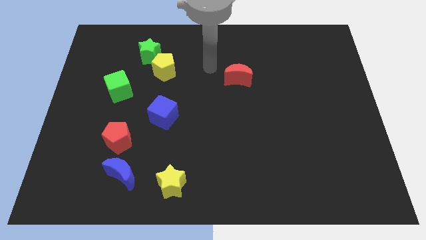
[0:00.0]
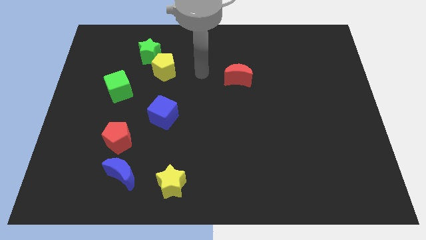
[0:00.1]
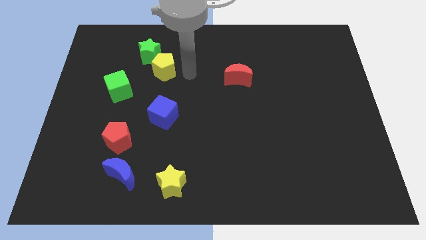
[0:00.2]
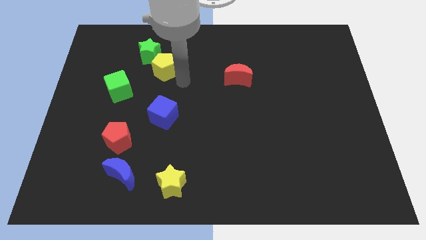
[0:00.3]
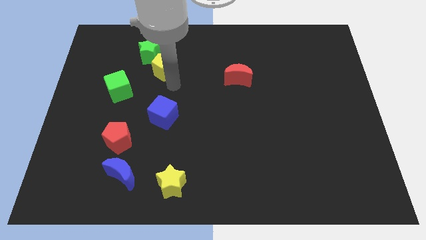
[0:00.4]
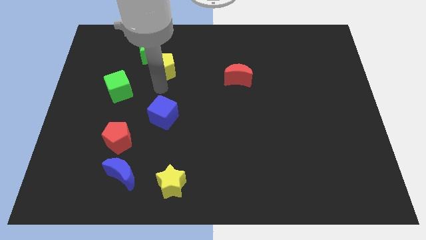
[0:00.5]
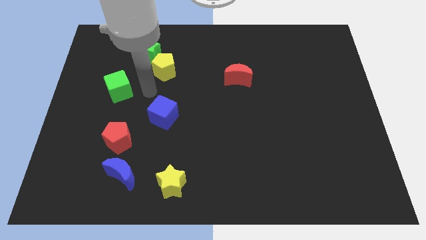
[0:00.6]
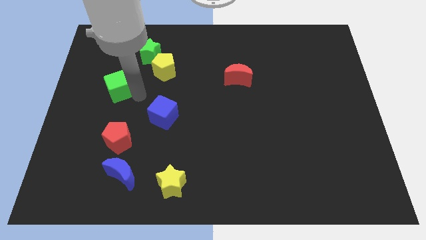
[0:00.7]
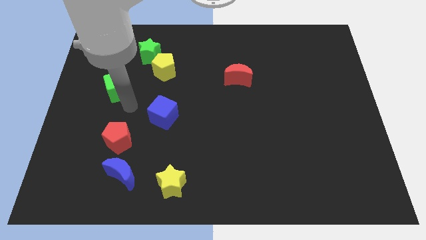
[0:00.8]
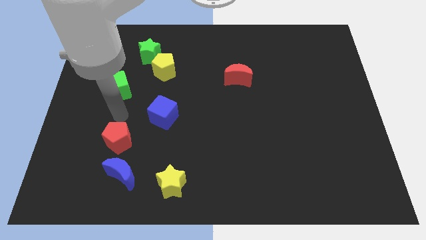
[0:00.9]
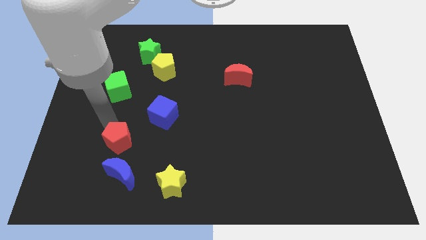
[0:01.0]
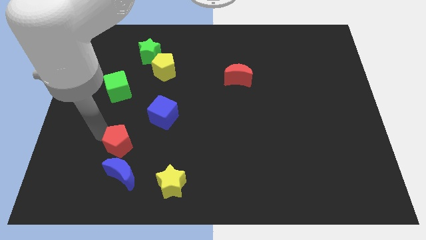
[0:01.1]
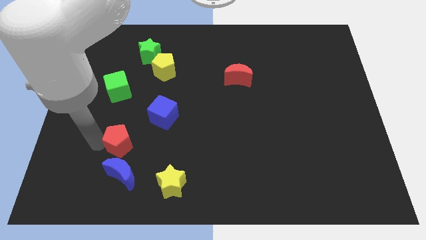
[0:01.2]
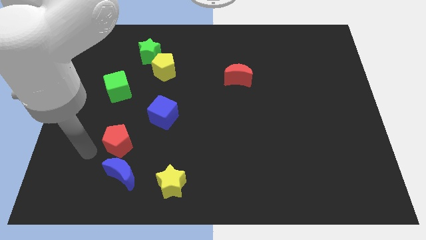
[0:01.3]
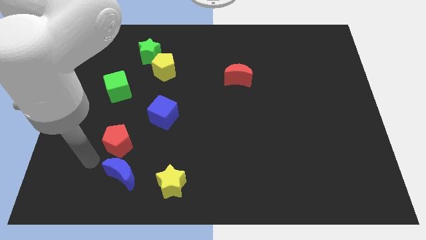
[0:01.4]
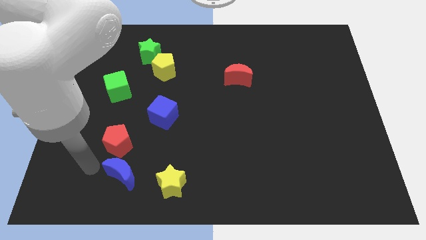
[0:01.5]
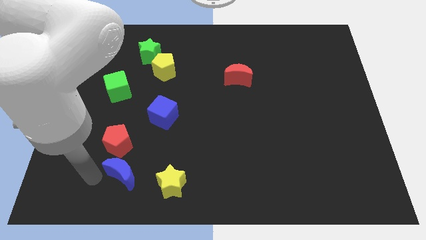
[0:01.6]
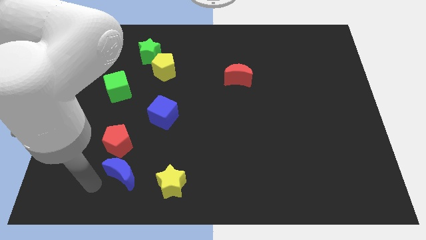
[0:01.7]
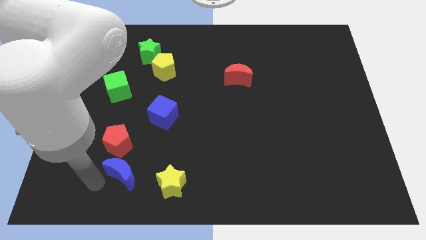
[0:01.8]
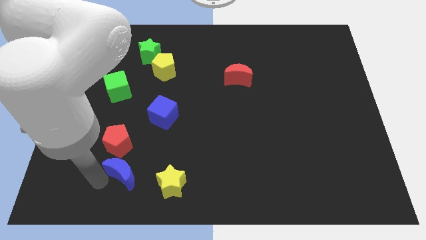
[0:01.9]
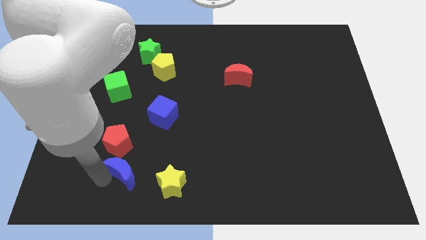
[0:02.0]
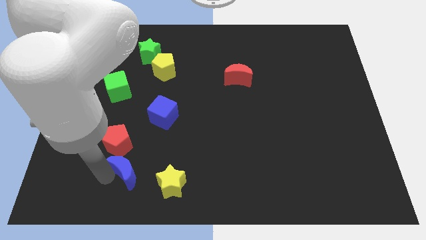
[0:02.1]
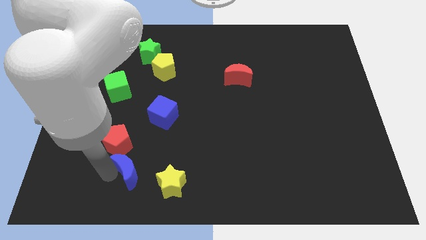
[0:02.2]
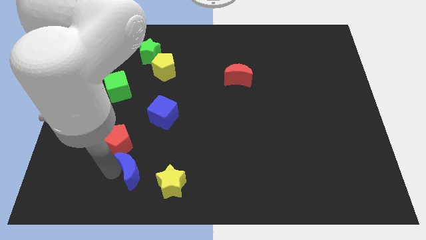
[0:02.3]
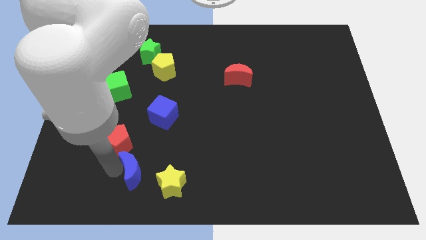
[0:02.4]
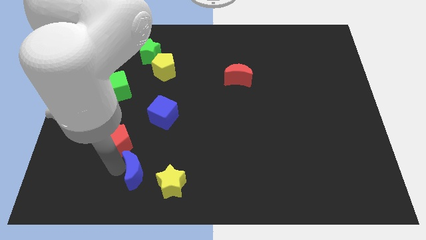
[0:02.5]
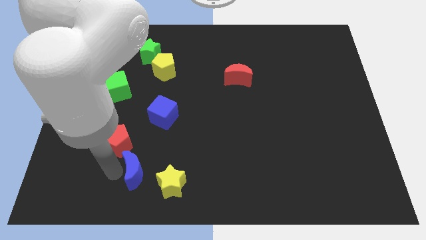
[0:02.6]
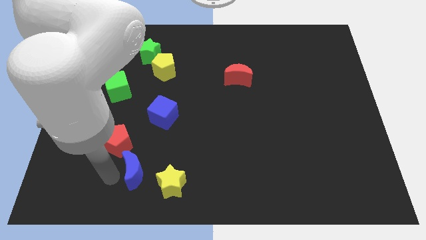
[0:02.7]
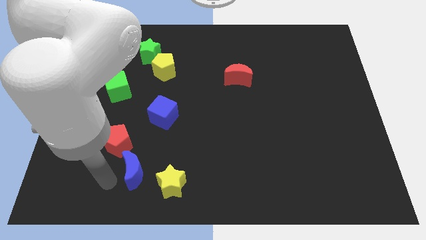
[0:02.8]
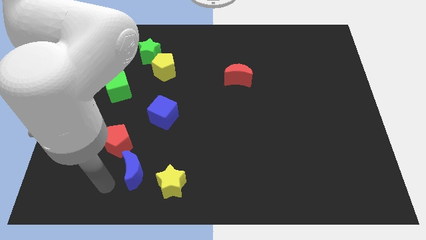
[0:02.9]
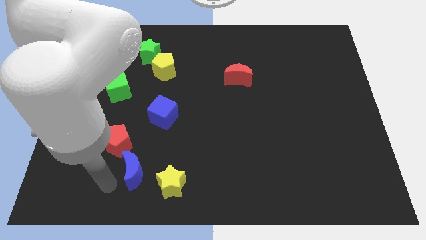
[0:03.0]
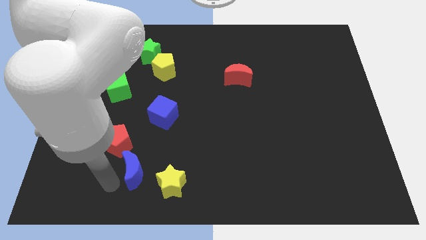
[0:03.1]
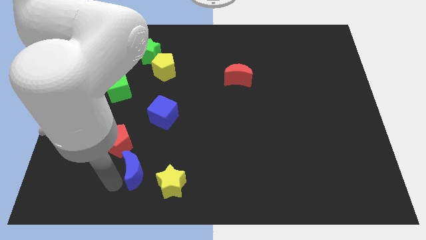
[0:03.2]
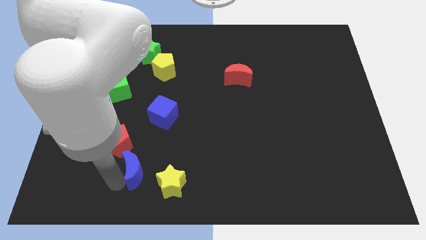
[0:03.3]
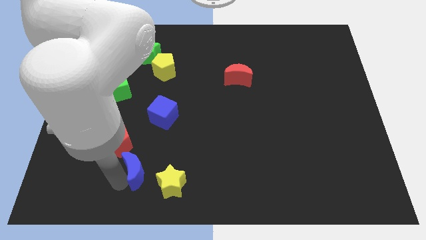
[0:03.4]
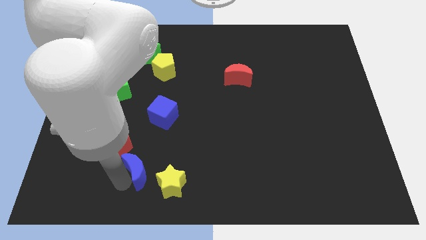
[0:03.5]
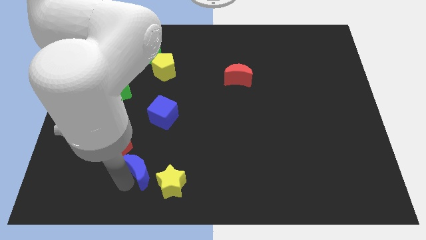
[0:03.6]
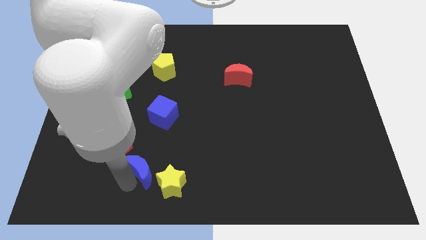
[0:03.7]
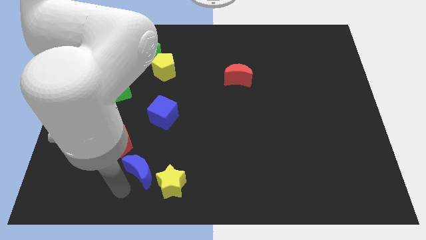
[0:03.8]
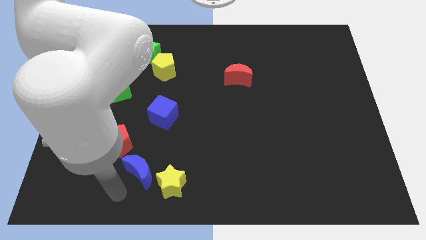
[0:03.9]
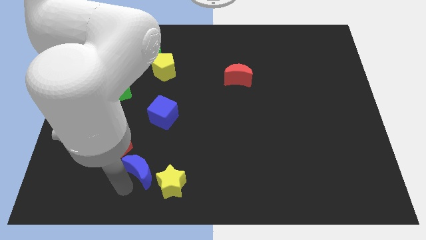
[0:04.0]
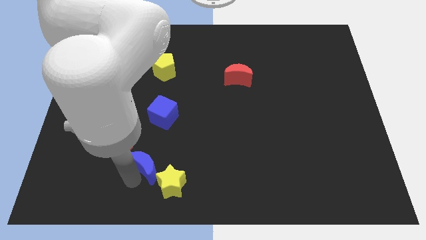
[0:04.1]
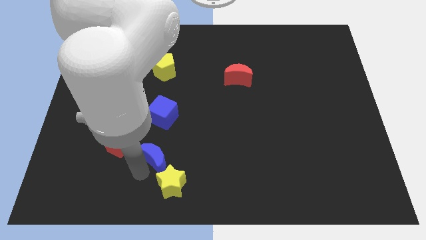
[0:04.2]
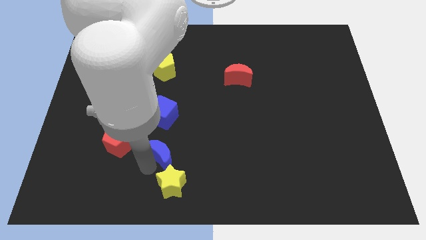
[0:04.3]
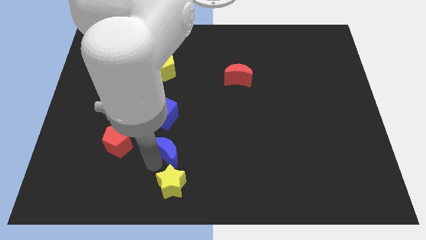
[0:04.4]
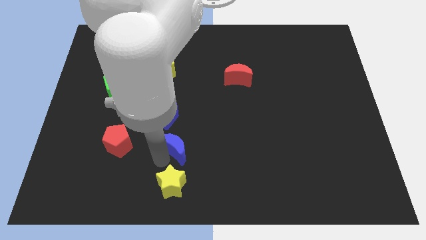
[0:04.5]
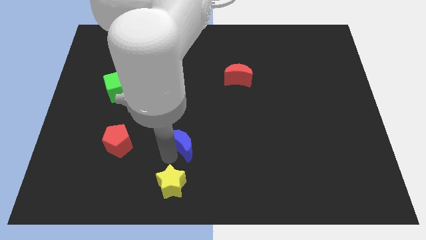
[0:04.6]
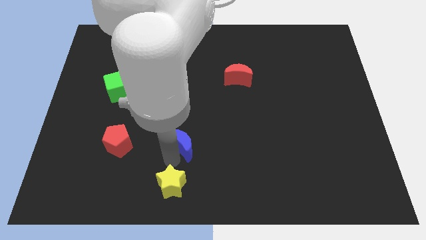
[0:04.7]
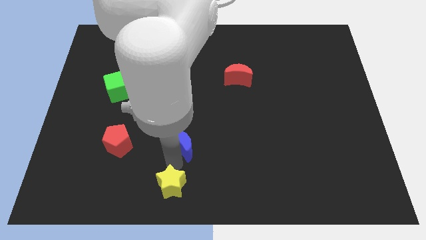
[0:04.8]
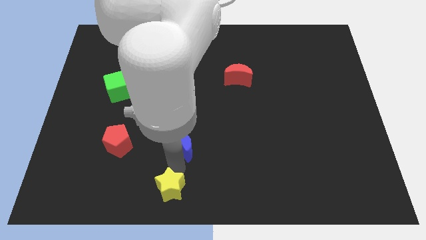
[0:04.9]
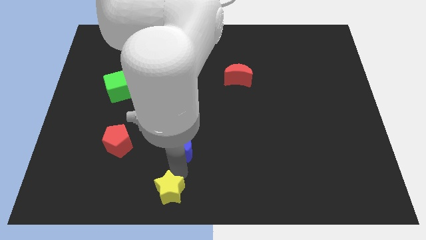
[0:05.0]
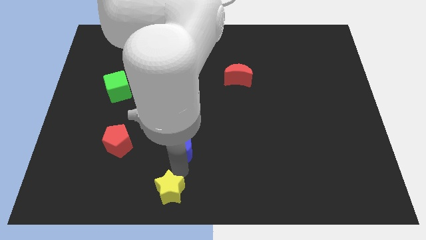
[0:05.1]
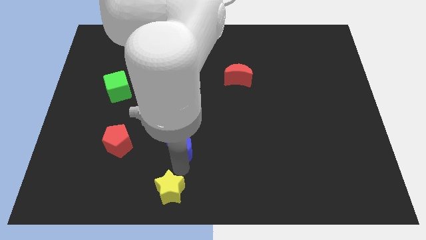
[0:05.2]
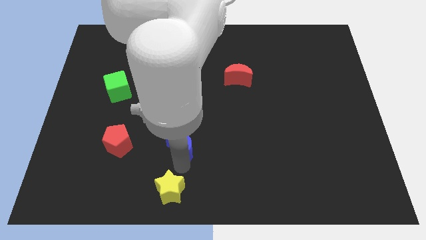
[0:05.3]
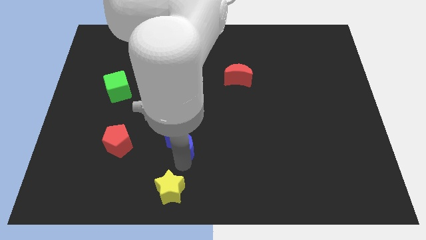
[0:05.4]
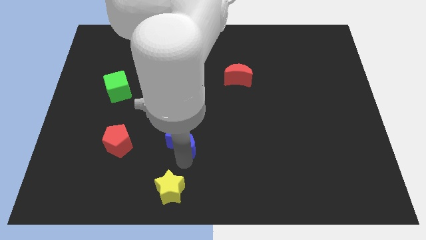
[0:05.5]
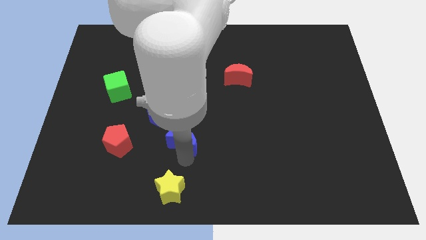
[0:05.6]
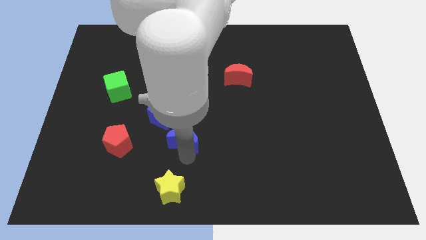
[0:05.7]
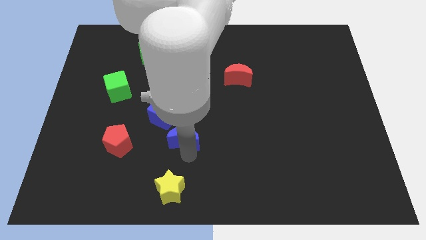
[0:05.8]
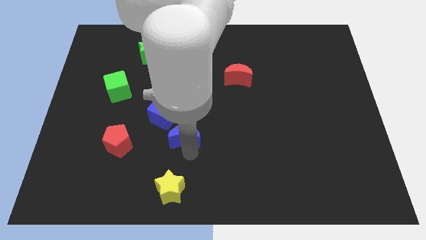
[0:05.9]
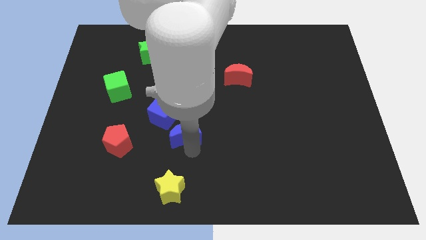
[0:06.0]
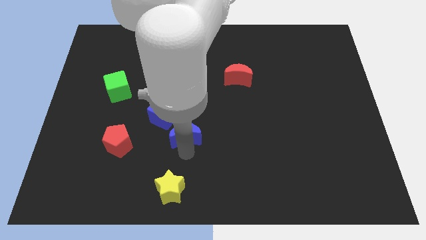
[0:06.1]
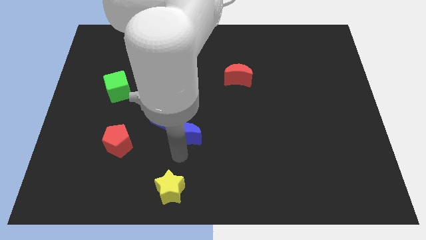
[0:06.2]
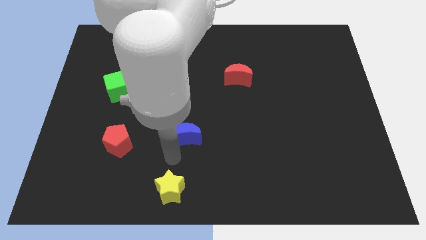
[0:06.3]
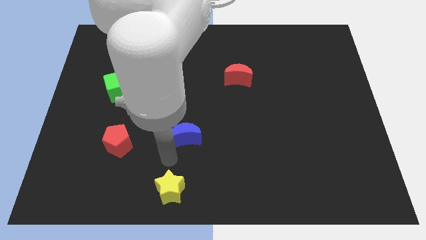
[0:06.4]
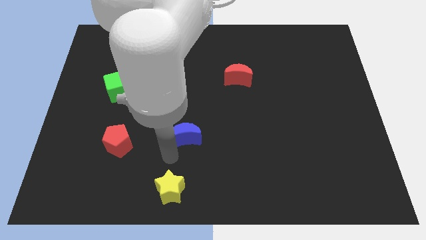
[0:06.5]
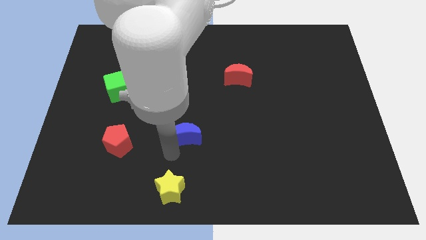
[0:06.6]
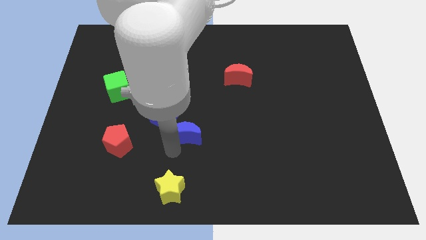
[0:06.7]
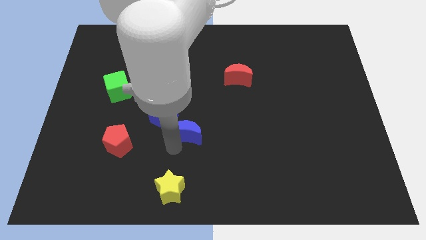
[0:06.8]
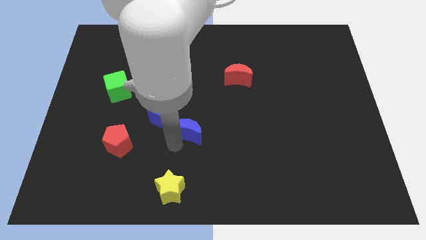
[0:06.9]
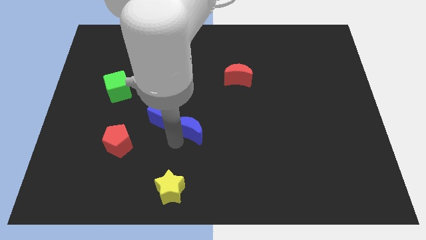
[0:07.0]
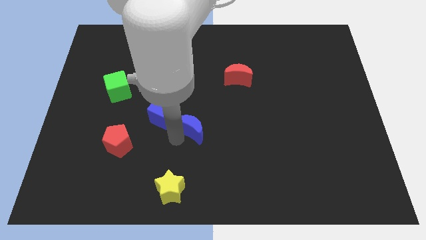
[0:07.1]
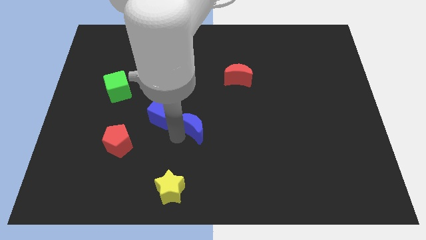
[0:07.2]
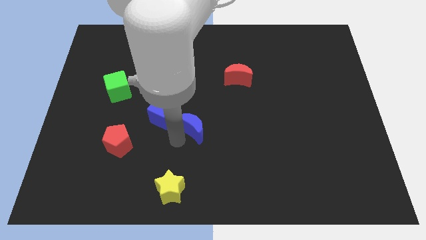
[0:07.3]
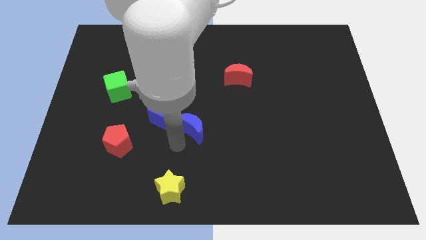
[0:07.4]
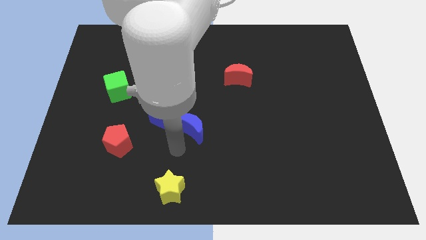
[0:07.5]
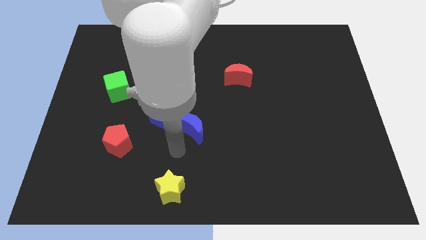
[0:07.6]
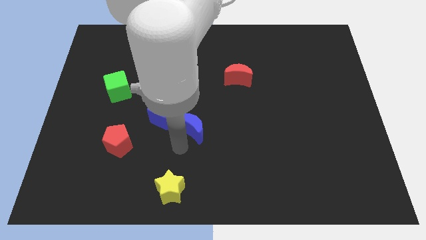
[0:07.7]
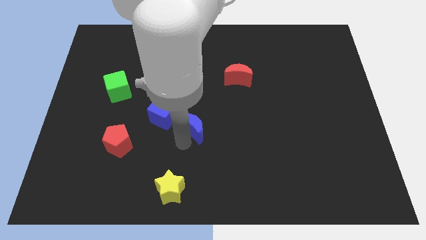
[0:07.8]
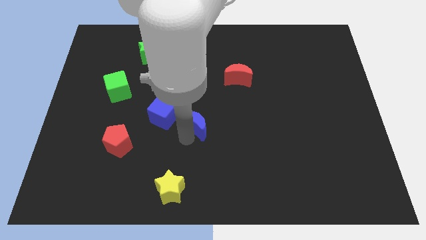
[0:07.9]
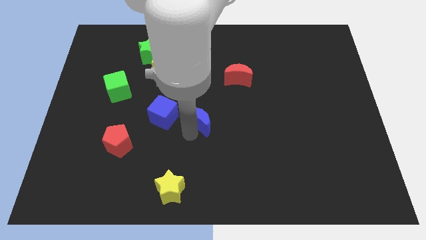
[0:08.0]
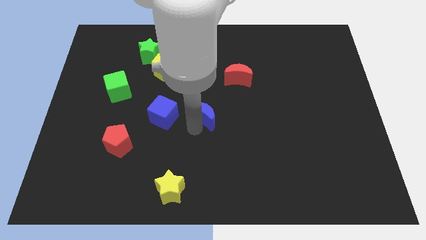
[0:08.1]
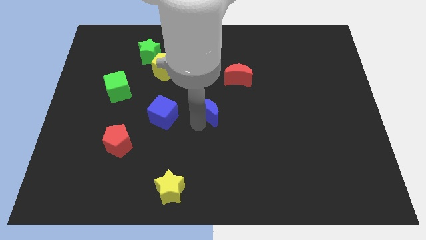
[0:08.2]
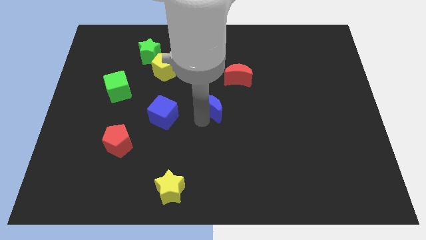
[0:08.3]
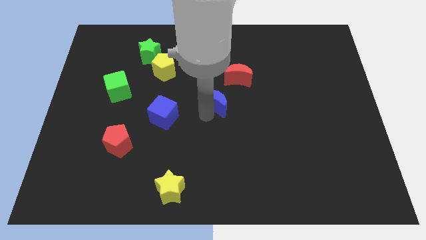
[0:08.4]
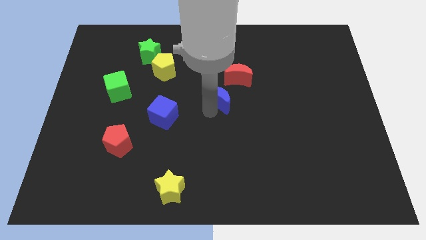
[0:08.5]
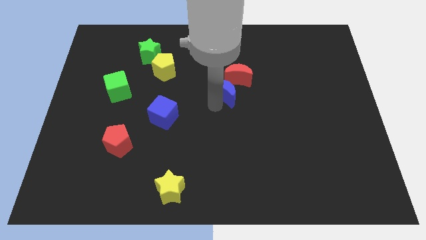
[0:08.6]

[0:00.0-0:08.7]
push the blue moon to the red moon
